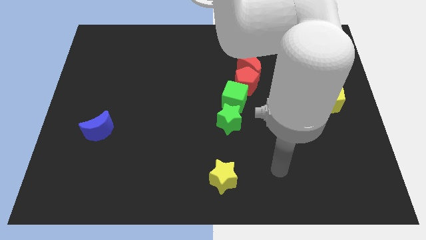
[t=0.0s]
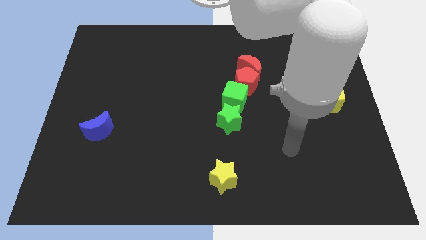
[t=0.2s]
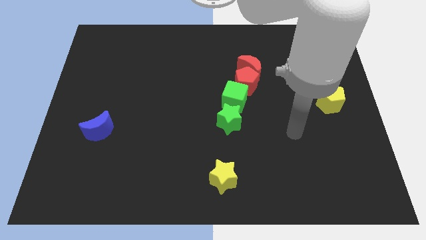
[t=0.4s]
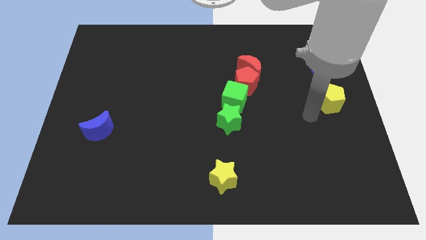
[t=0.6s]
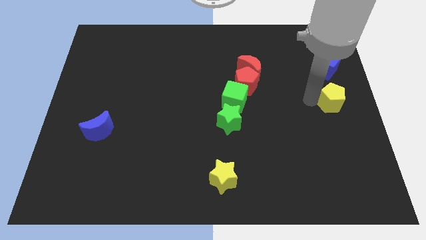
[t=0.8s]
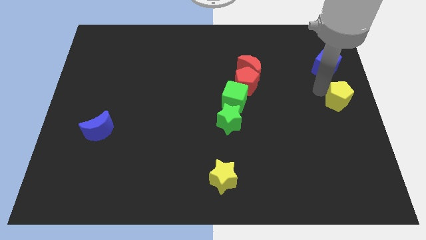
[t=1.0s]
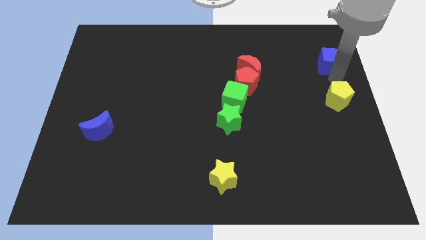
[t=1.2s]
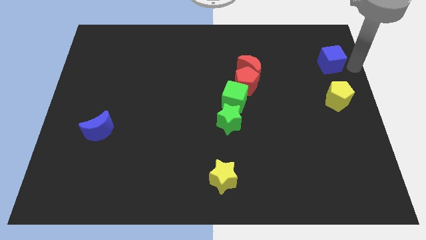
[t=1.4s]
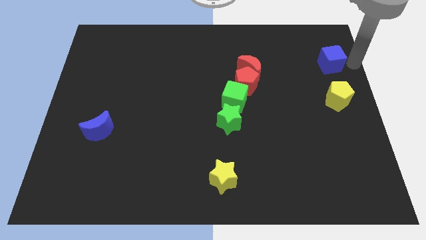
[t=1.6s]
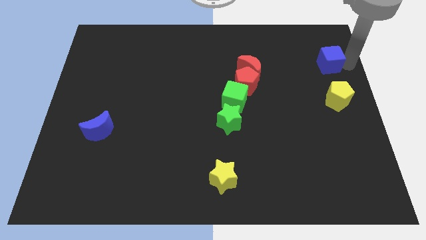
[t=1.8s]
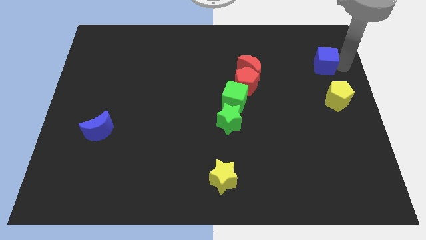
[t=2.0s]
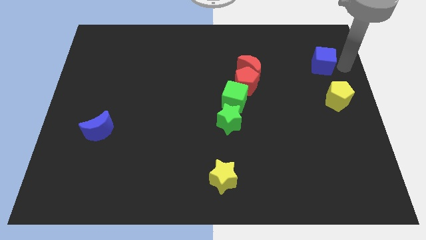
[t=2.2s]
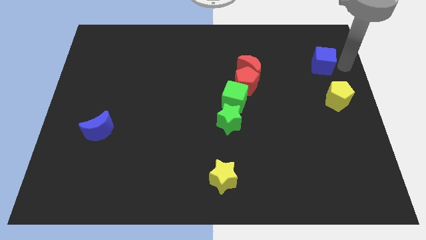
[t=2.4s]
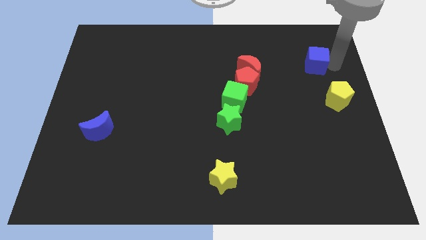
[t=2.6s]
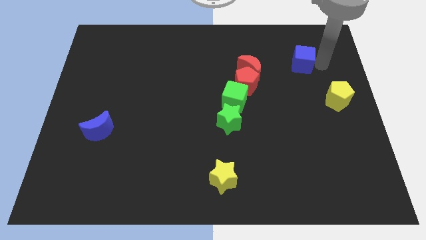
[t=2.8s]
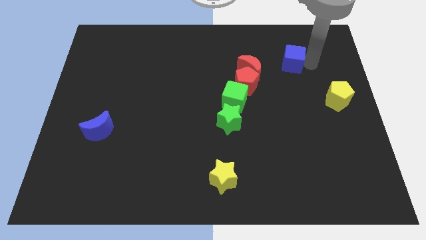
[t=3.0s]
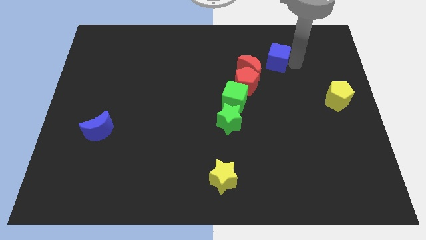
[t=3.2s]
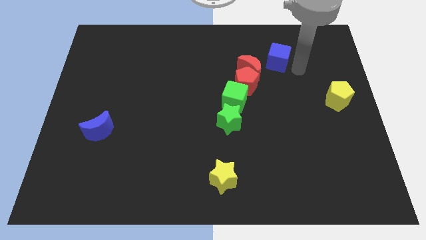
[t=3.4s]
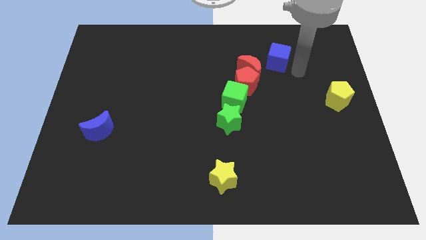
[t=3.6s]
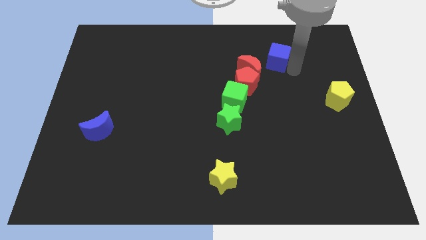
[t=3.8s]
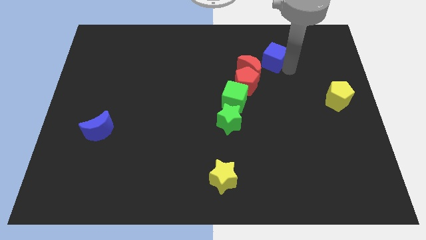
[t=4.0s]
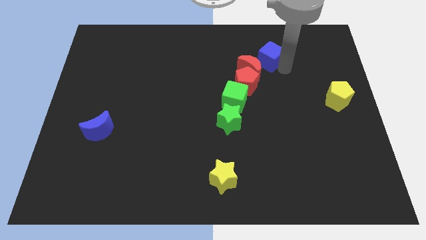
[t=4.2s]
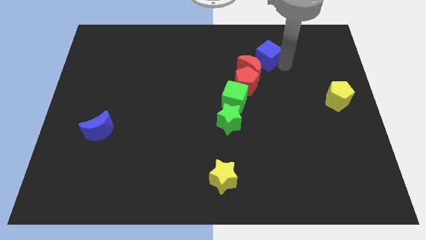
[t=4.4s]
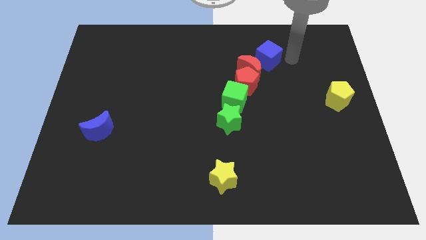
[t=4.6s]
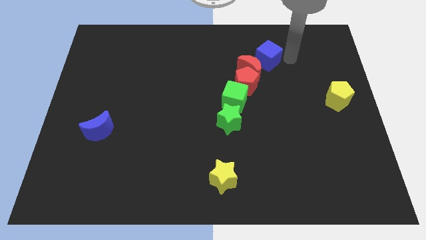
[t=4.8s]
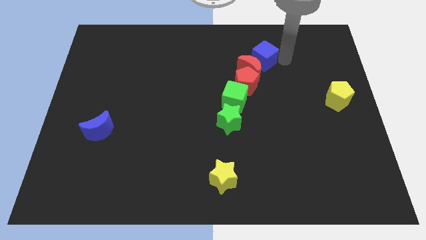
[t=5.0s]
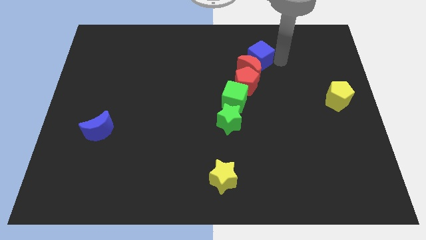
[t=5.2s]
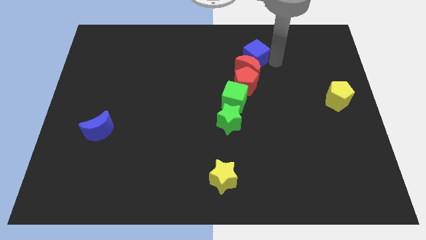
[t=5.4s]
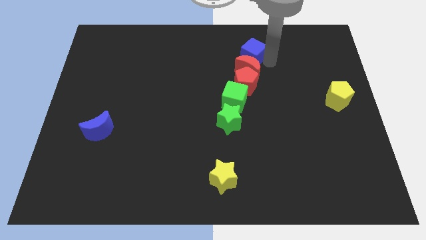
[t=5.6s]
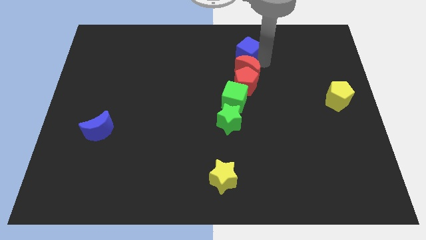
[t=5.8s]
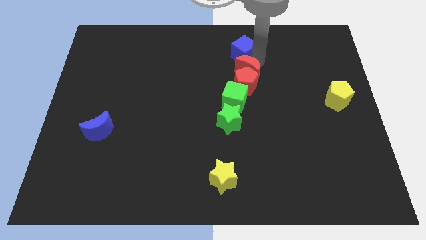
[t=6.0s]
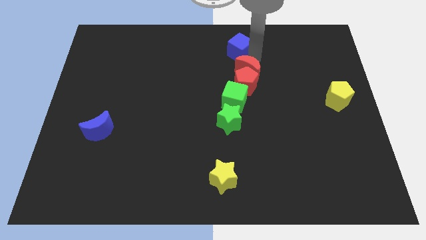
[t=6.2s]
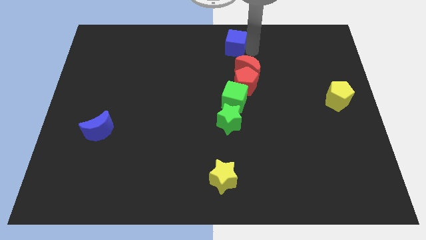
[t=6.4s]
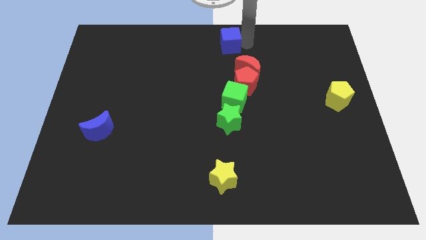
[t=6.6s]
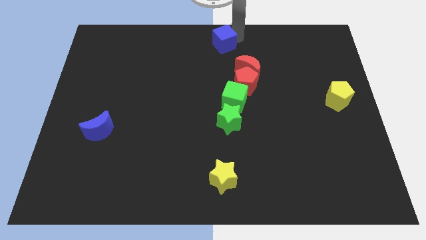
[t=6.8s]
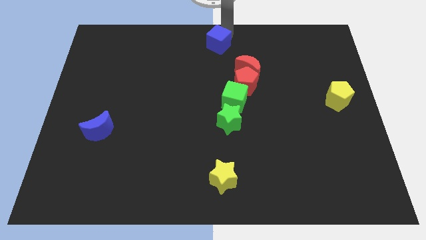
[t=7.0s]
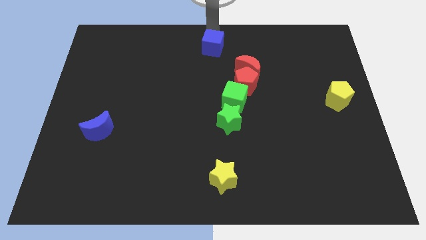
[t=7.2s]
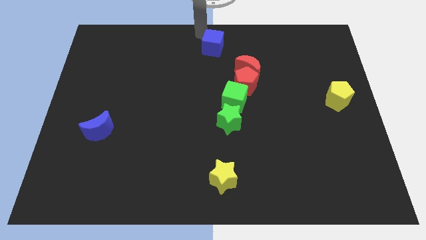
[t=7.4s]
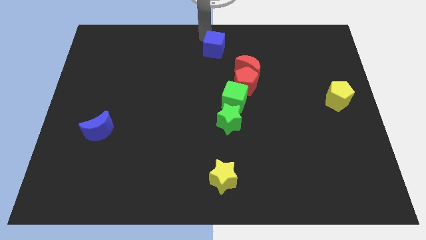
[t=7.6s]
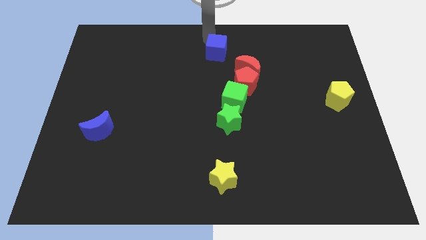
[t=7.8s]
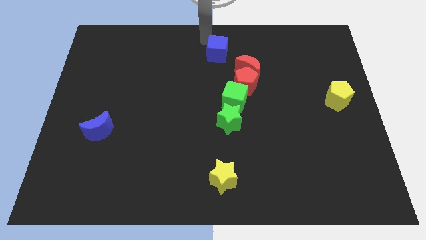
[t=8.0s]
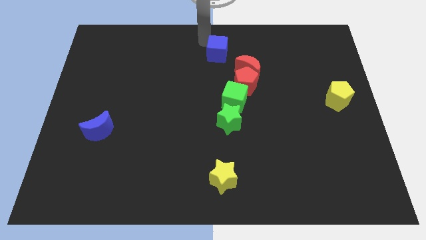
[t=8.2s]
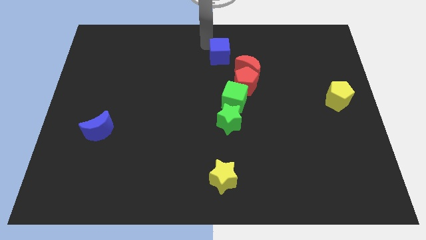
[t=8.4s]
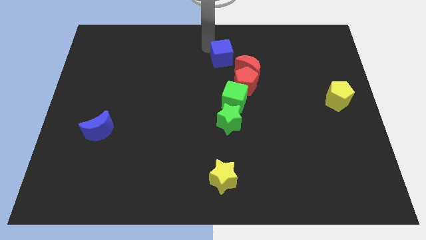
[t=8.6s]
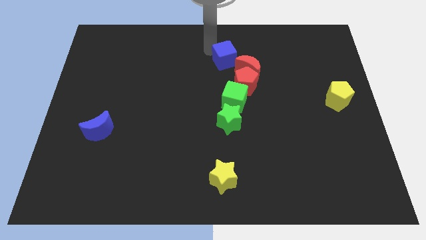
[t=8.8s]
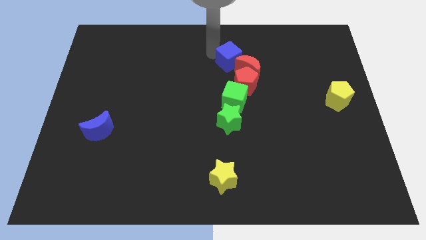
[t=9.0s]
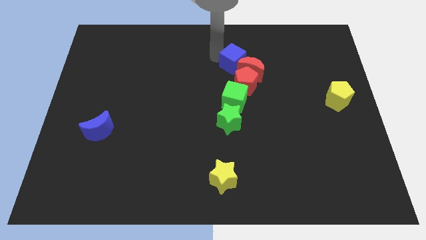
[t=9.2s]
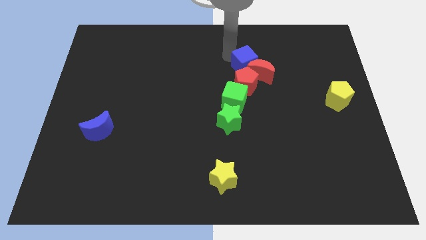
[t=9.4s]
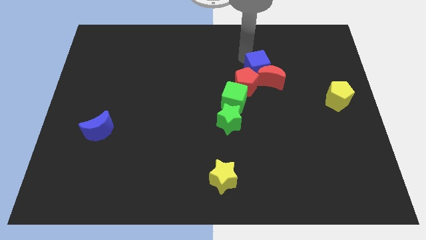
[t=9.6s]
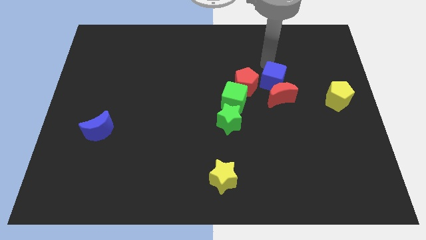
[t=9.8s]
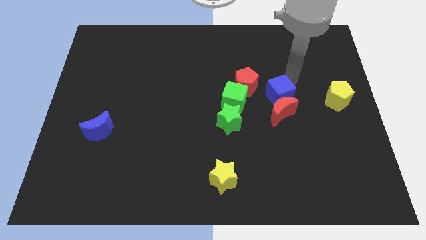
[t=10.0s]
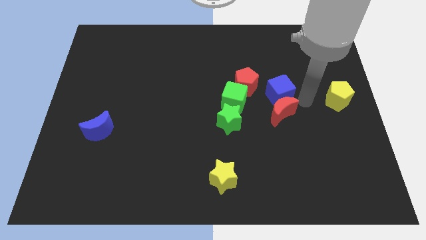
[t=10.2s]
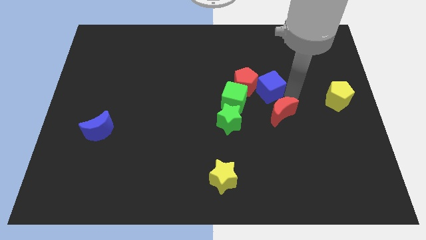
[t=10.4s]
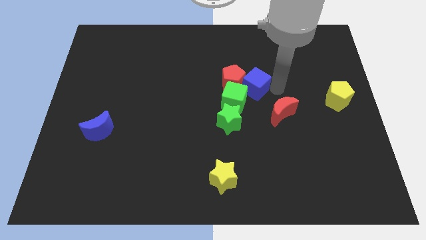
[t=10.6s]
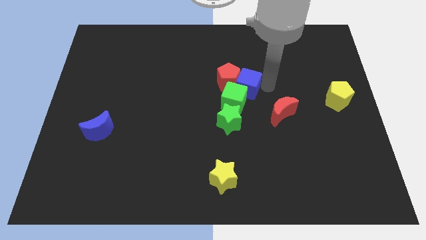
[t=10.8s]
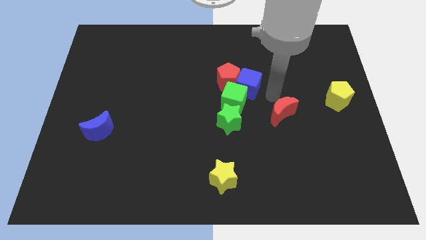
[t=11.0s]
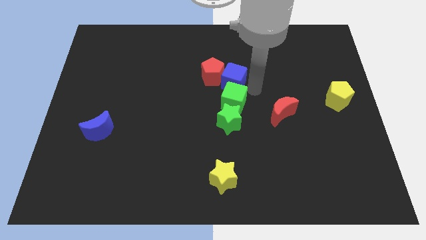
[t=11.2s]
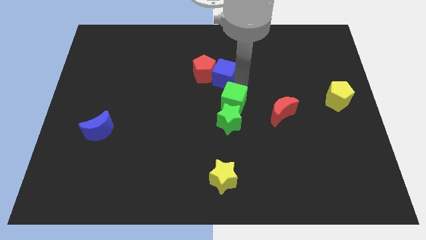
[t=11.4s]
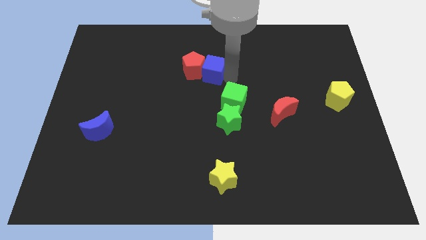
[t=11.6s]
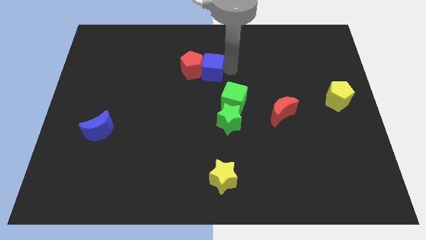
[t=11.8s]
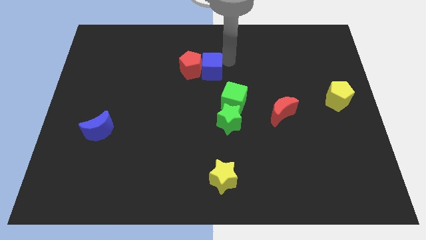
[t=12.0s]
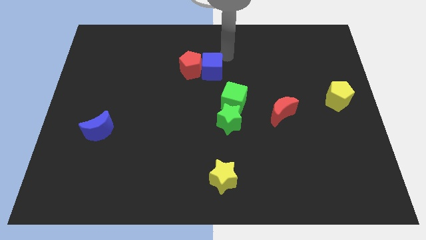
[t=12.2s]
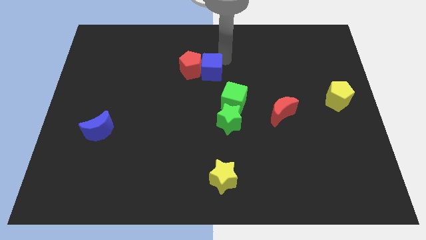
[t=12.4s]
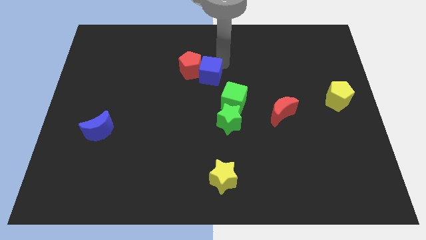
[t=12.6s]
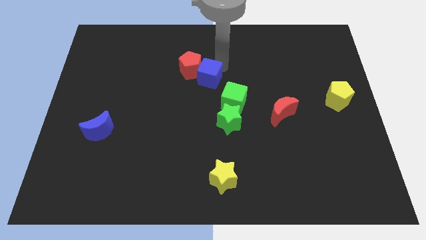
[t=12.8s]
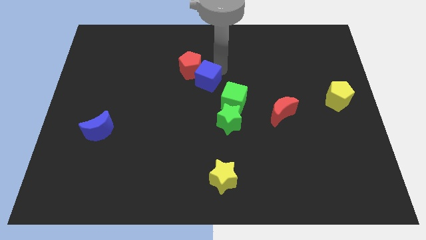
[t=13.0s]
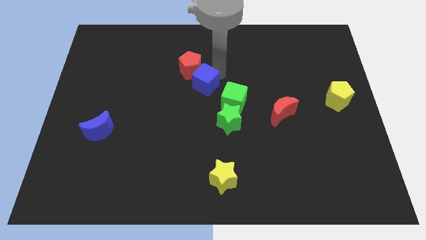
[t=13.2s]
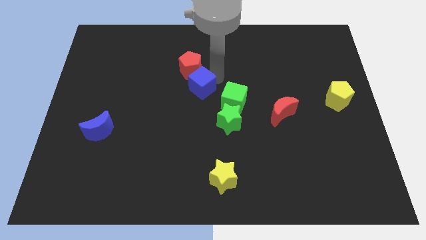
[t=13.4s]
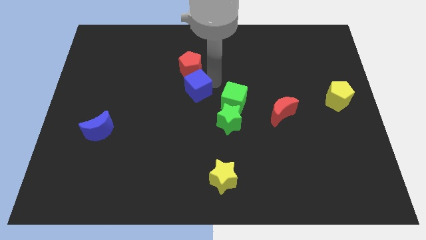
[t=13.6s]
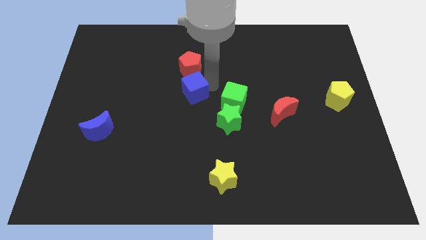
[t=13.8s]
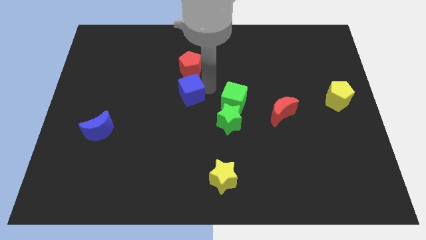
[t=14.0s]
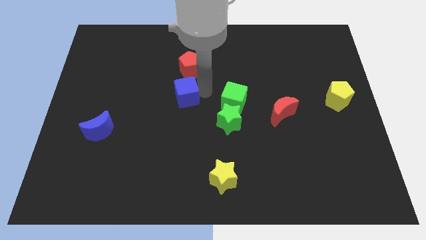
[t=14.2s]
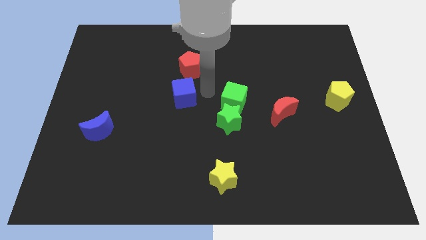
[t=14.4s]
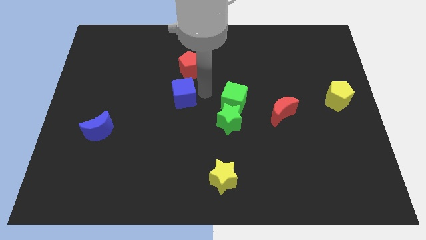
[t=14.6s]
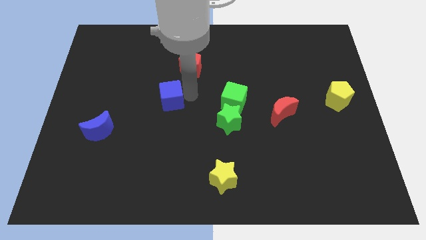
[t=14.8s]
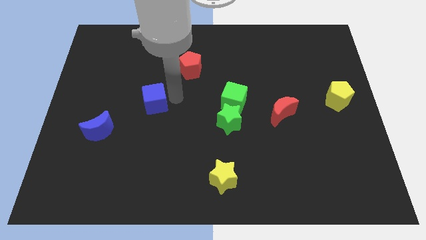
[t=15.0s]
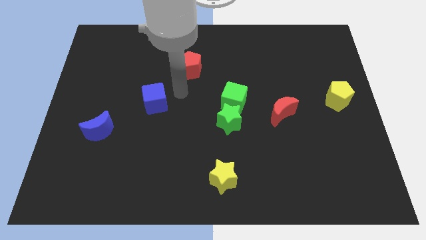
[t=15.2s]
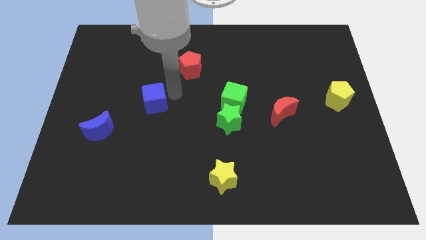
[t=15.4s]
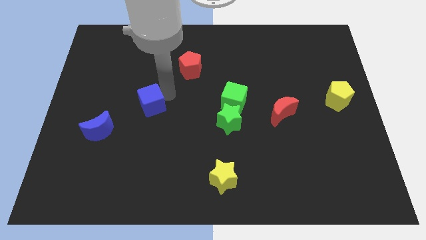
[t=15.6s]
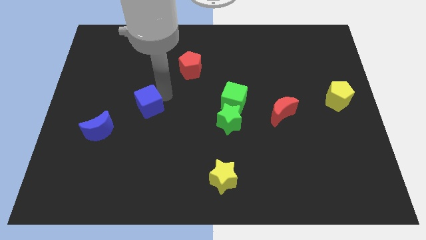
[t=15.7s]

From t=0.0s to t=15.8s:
push the blue cube to the top right side of the blue moon
